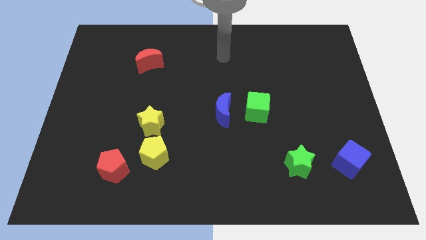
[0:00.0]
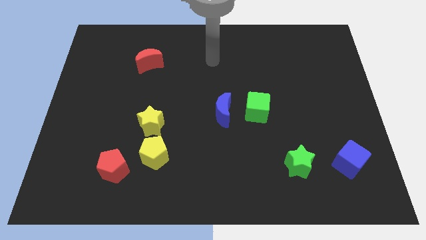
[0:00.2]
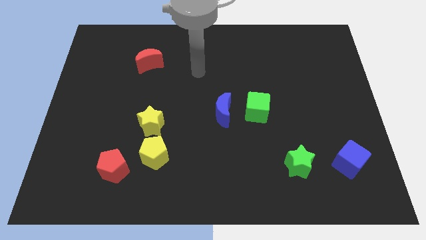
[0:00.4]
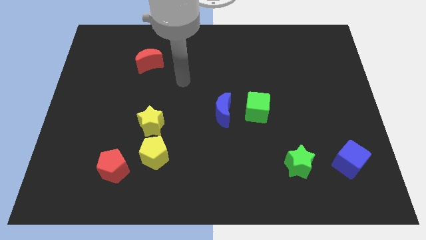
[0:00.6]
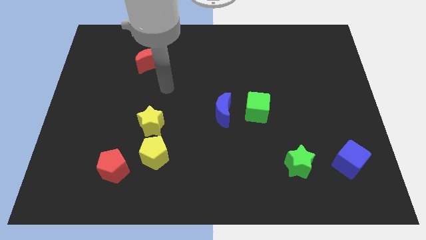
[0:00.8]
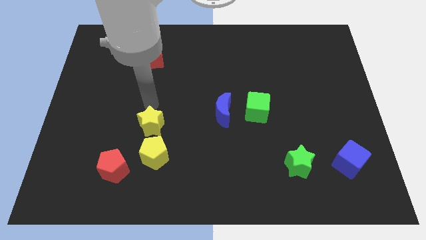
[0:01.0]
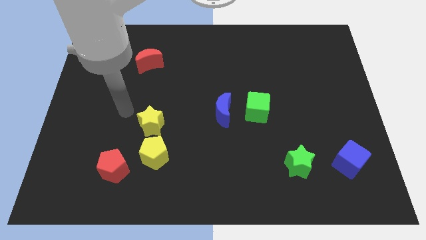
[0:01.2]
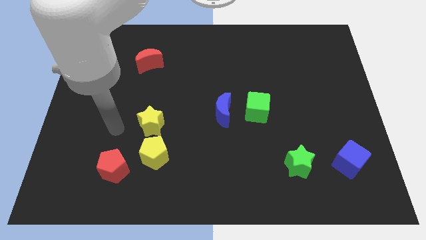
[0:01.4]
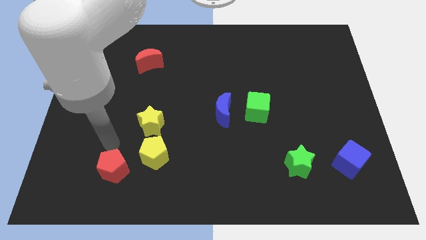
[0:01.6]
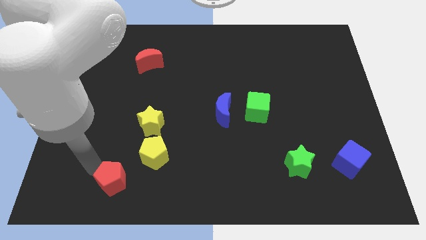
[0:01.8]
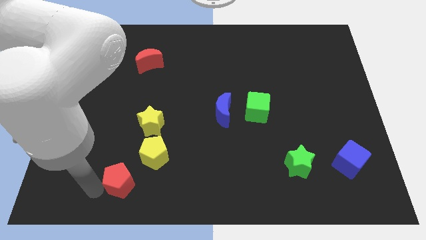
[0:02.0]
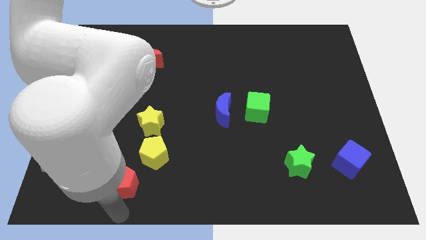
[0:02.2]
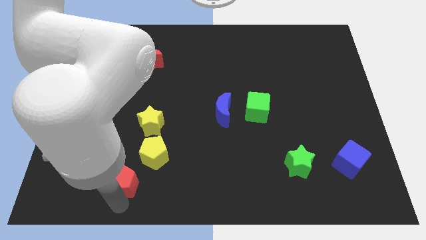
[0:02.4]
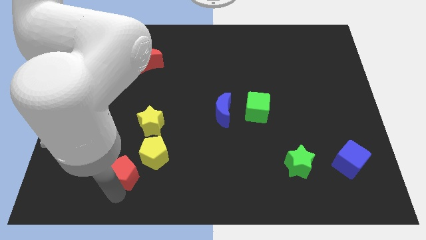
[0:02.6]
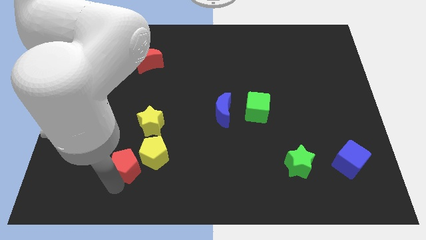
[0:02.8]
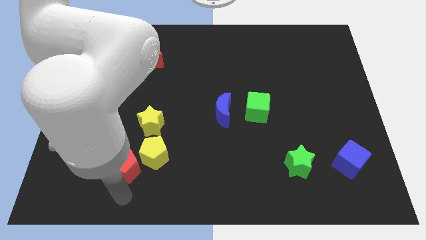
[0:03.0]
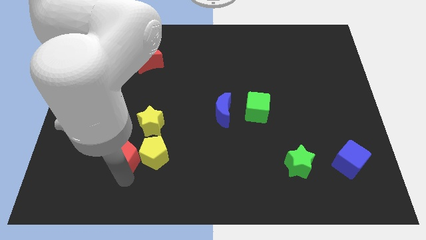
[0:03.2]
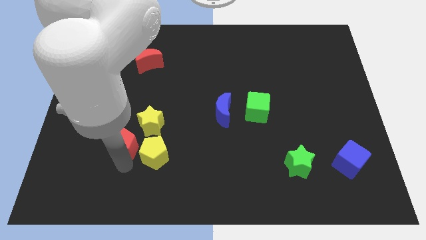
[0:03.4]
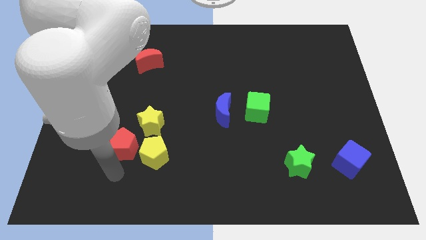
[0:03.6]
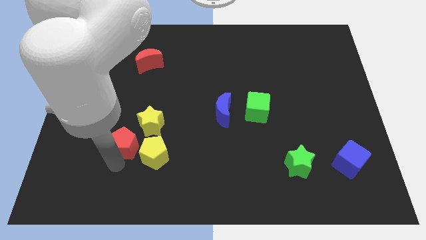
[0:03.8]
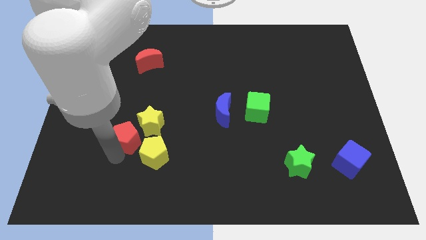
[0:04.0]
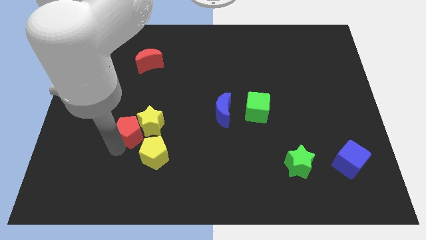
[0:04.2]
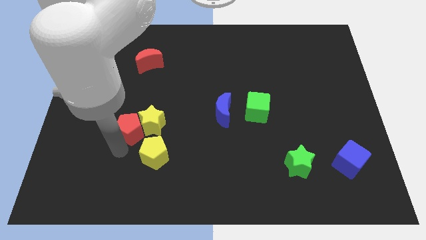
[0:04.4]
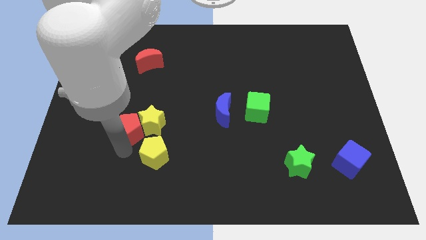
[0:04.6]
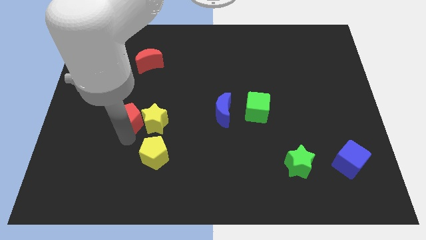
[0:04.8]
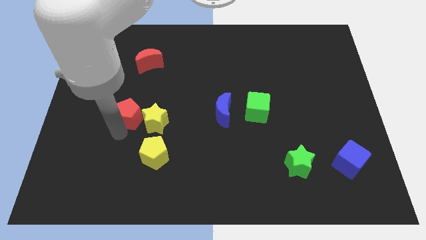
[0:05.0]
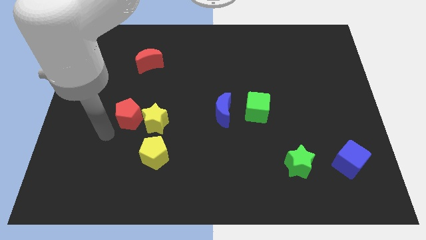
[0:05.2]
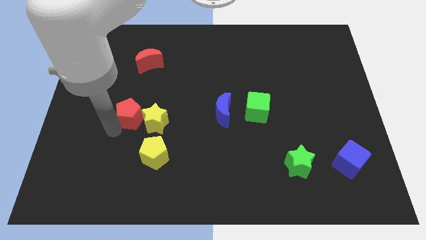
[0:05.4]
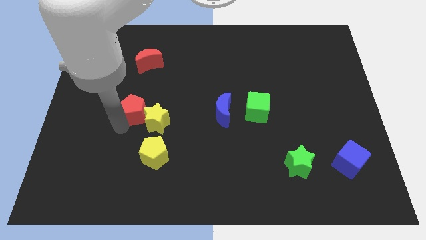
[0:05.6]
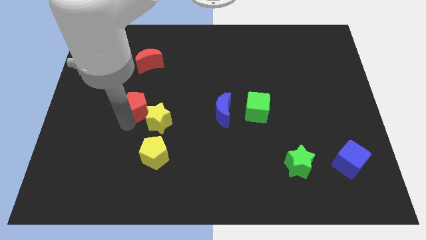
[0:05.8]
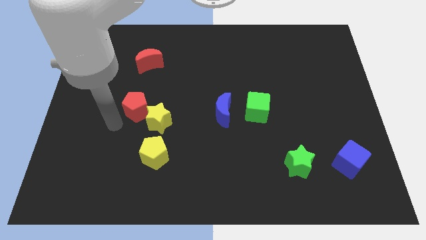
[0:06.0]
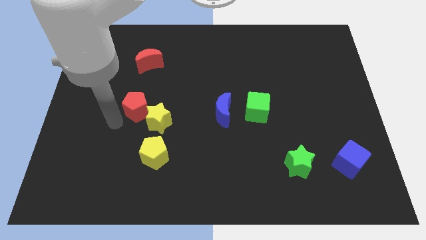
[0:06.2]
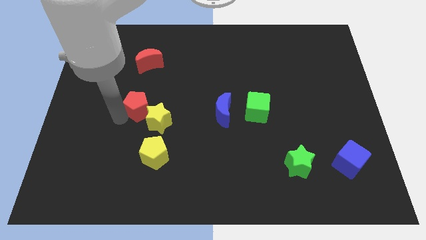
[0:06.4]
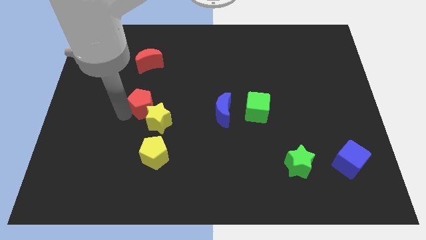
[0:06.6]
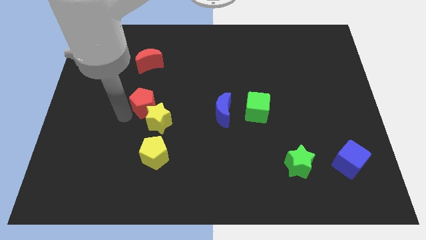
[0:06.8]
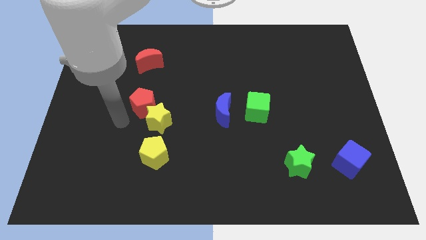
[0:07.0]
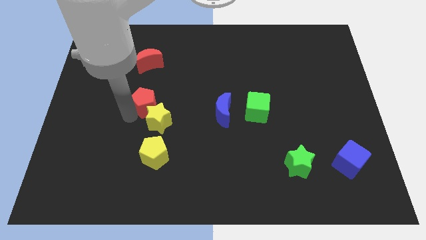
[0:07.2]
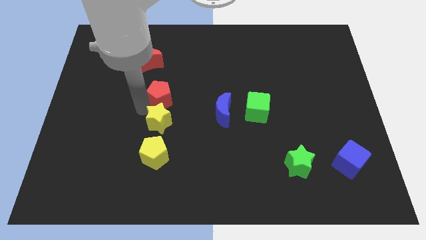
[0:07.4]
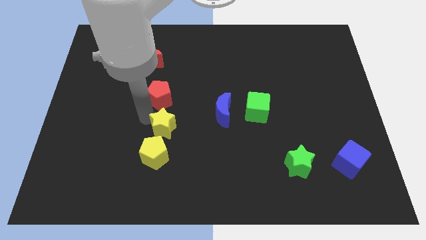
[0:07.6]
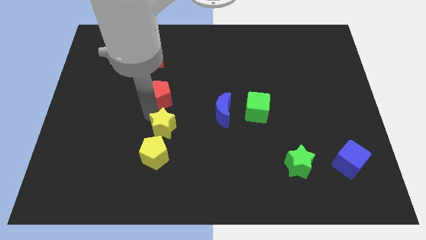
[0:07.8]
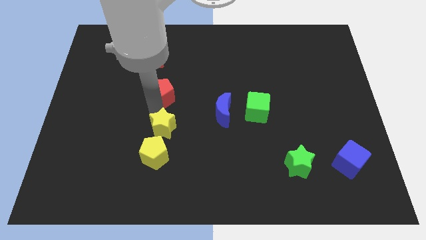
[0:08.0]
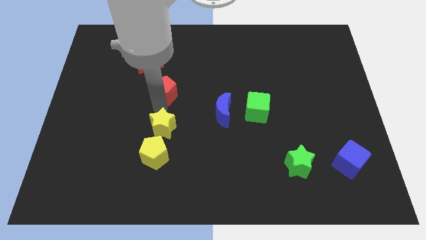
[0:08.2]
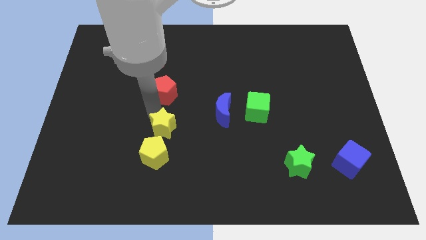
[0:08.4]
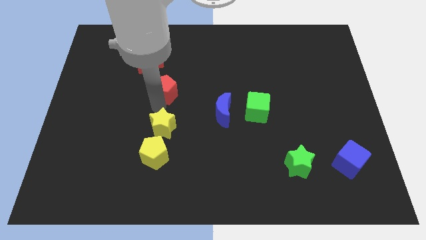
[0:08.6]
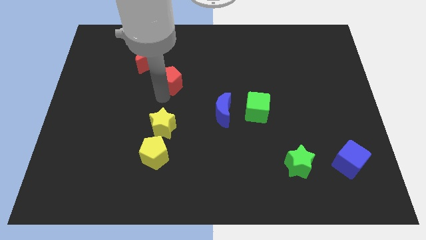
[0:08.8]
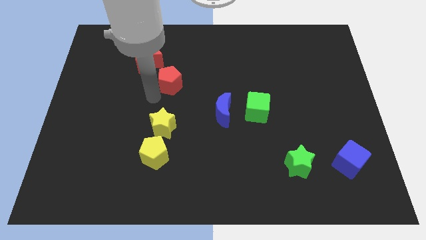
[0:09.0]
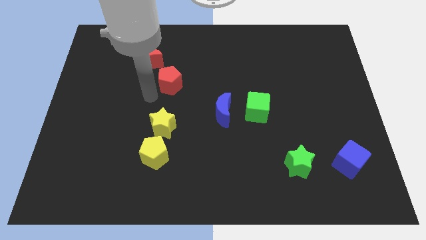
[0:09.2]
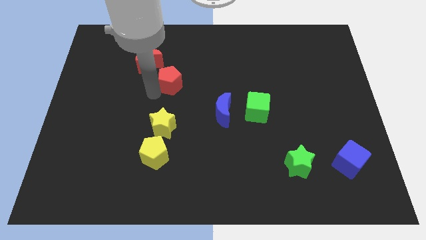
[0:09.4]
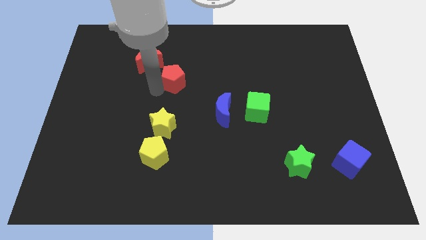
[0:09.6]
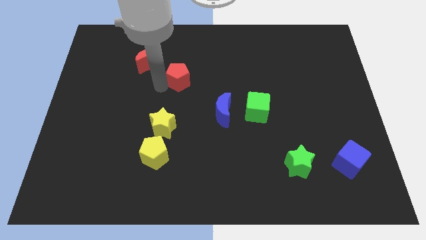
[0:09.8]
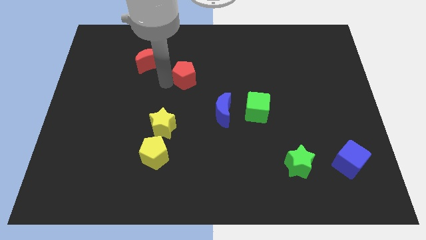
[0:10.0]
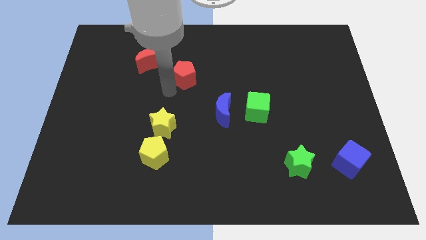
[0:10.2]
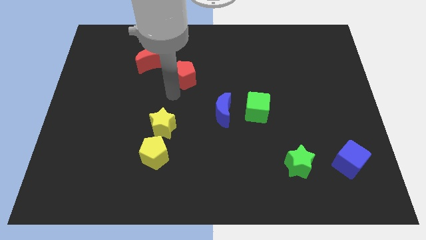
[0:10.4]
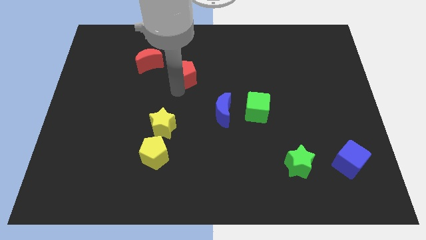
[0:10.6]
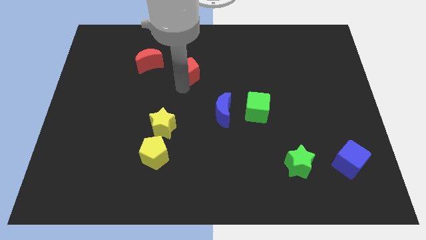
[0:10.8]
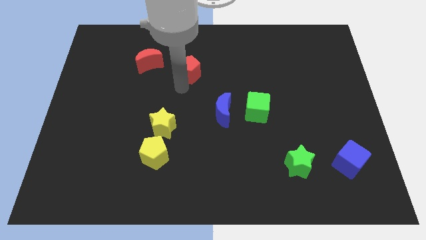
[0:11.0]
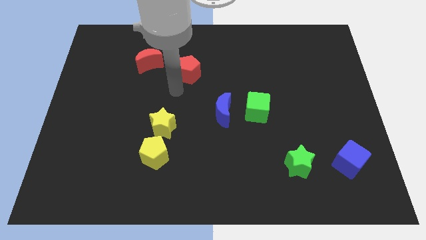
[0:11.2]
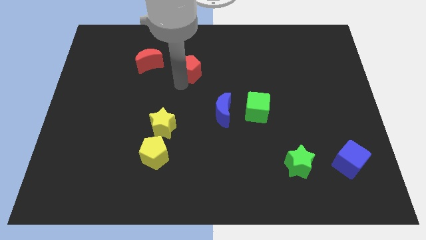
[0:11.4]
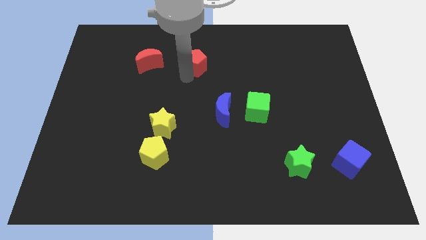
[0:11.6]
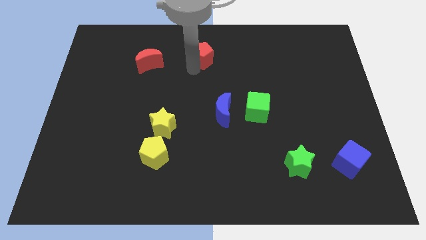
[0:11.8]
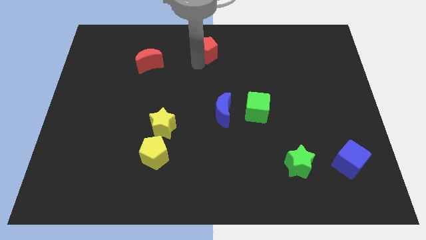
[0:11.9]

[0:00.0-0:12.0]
move the red pentagon to the towards your base
